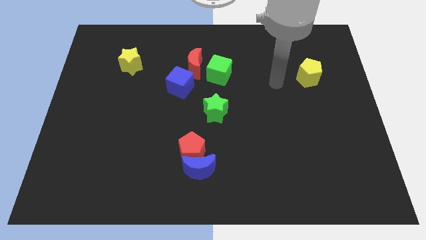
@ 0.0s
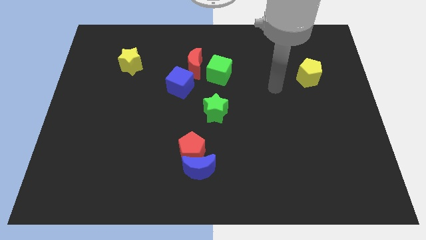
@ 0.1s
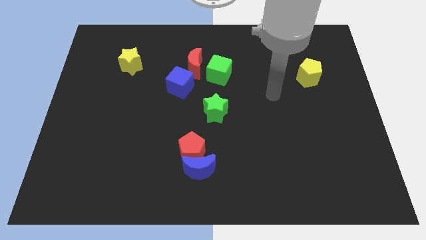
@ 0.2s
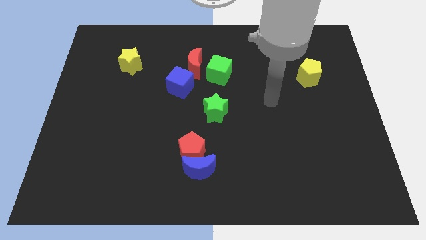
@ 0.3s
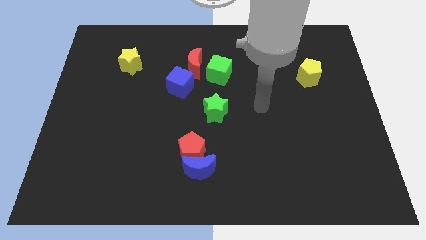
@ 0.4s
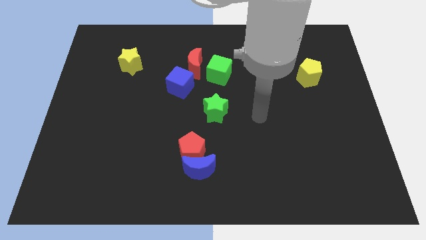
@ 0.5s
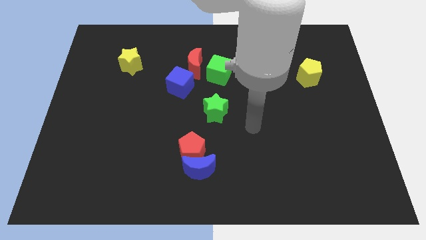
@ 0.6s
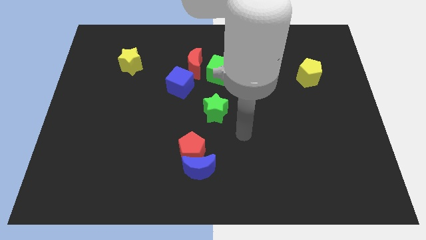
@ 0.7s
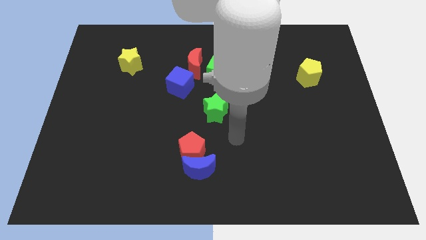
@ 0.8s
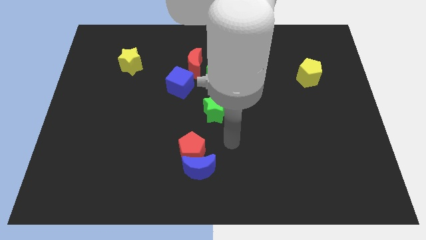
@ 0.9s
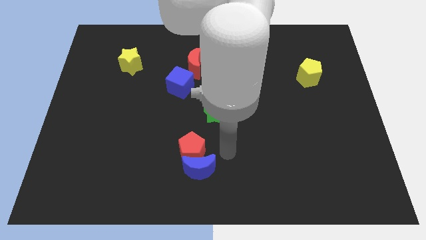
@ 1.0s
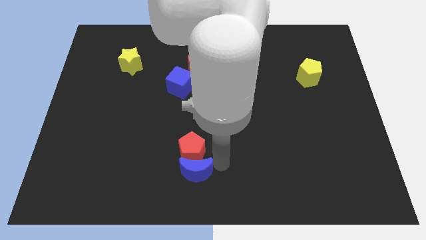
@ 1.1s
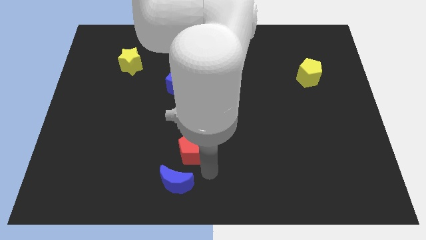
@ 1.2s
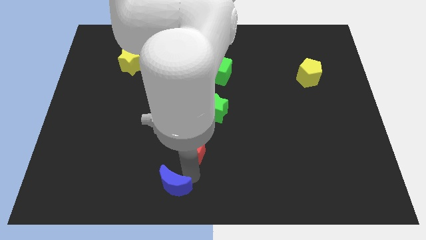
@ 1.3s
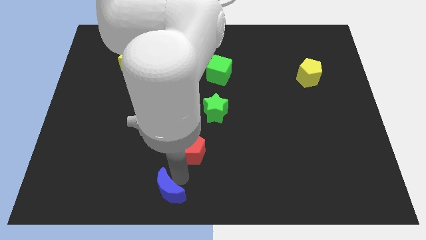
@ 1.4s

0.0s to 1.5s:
separate the red pentagon from the blue moon

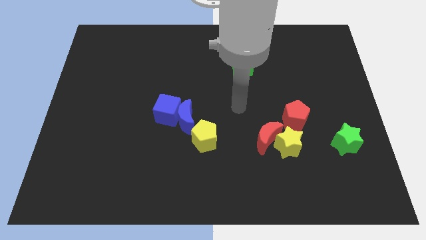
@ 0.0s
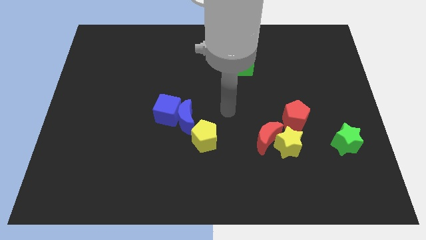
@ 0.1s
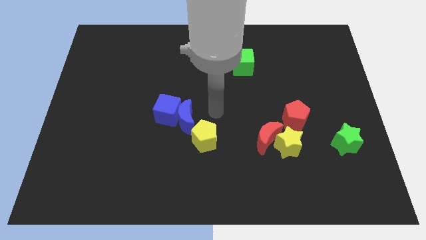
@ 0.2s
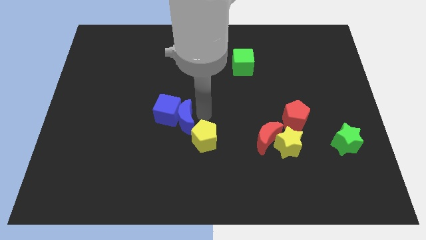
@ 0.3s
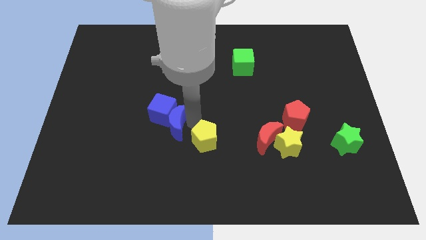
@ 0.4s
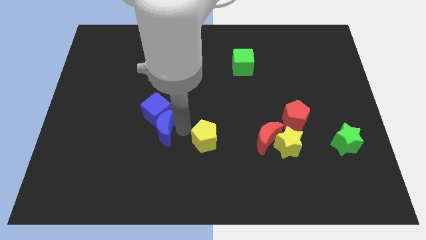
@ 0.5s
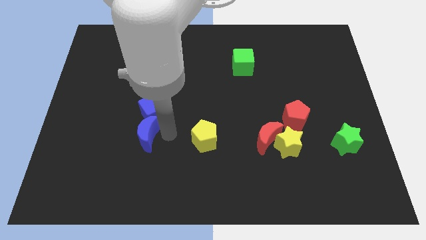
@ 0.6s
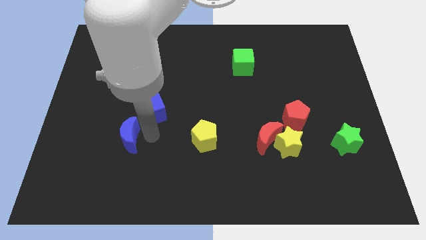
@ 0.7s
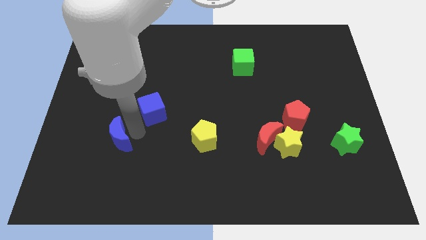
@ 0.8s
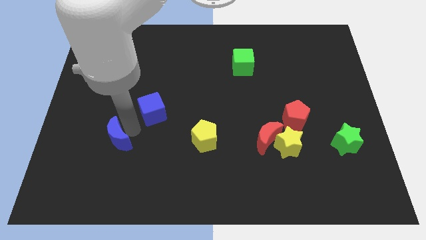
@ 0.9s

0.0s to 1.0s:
move the blue cube away from the blue moon

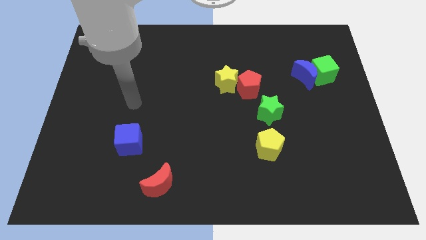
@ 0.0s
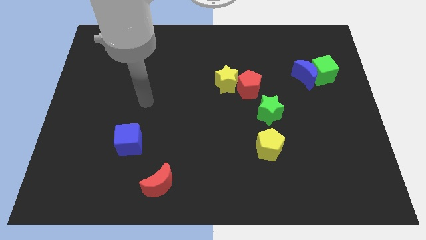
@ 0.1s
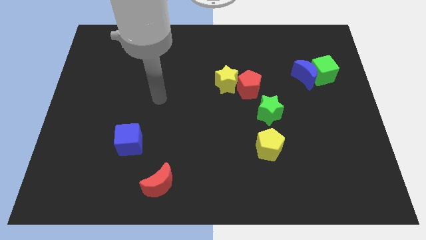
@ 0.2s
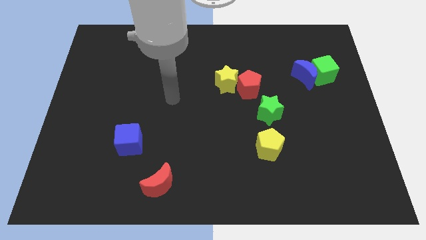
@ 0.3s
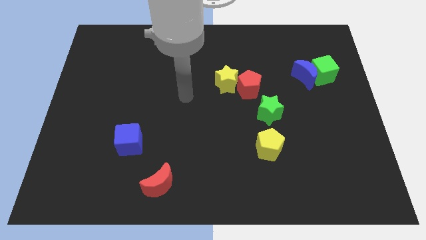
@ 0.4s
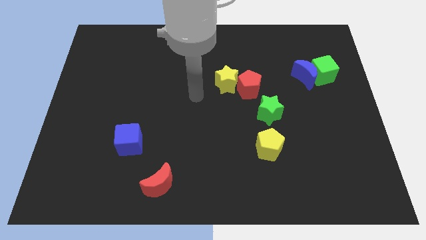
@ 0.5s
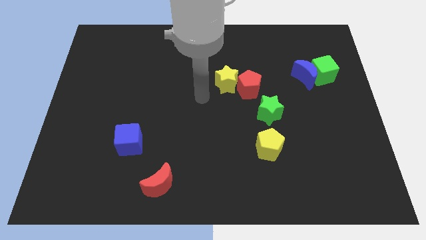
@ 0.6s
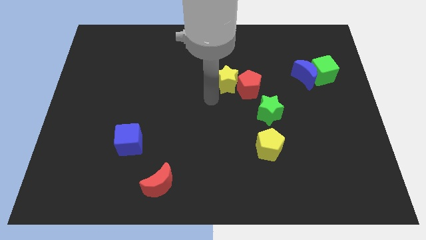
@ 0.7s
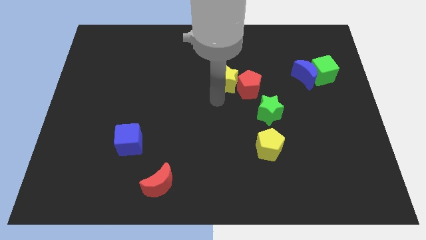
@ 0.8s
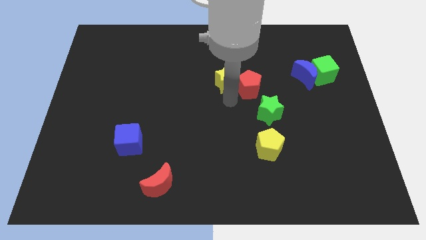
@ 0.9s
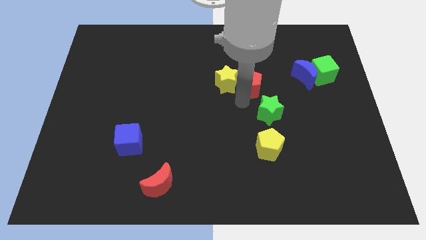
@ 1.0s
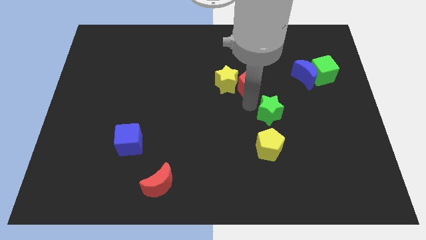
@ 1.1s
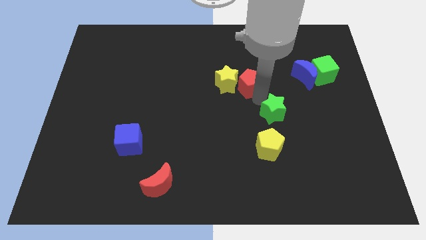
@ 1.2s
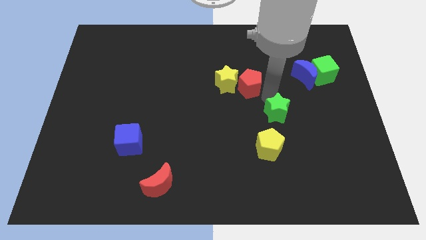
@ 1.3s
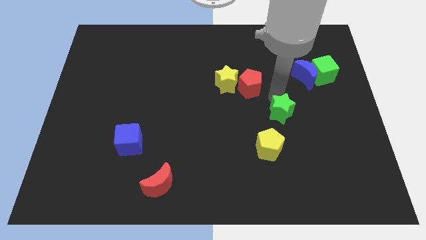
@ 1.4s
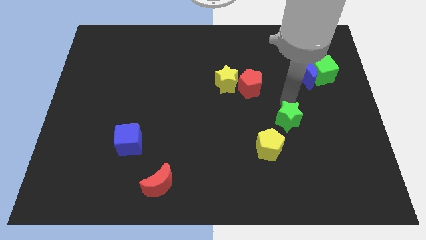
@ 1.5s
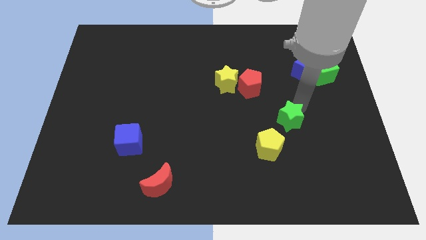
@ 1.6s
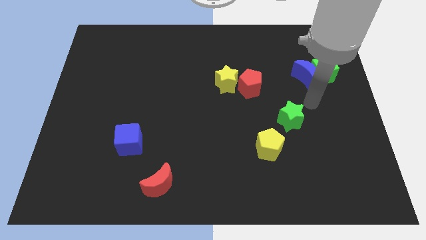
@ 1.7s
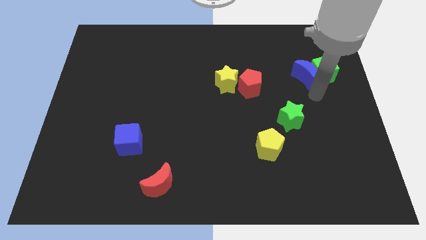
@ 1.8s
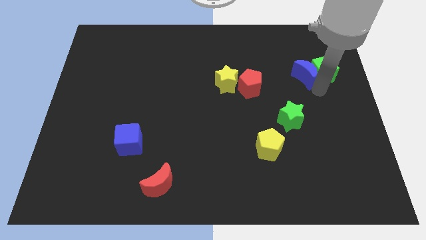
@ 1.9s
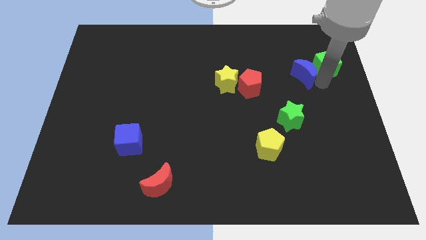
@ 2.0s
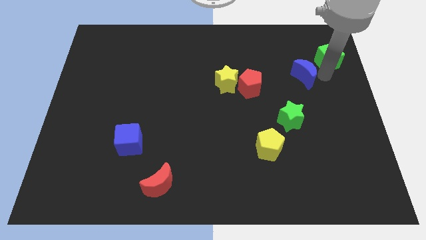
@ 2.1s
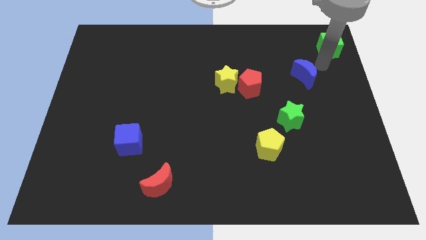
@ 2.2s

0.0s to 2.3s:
pull the blue moon apart from the green cube

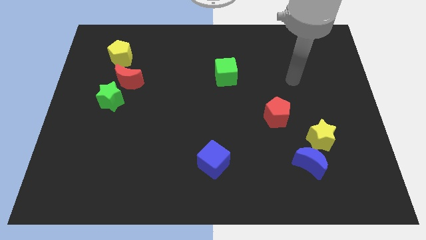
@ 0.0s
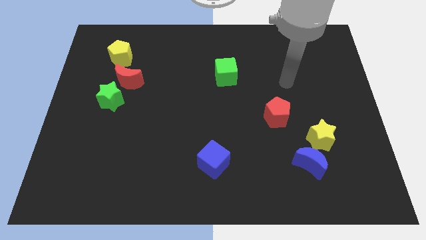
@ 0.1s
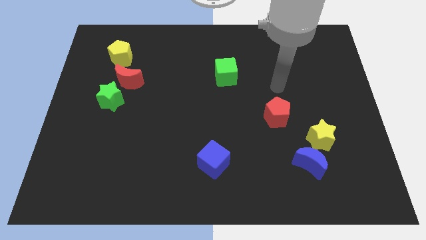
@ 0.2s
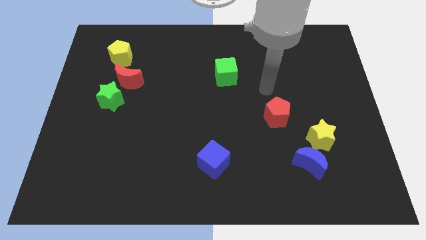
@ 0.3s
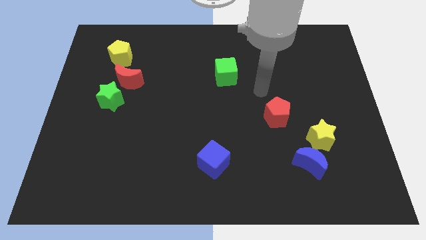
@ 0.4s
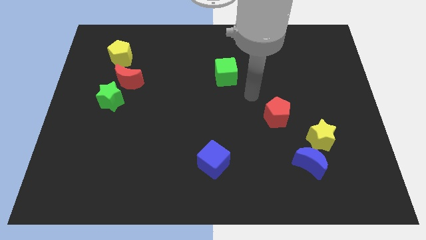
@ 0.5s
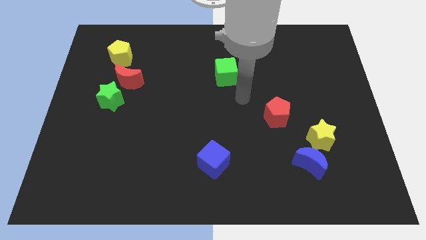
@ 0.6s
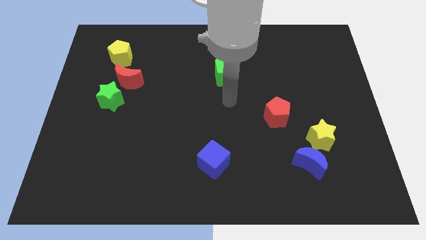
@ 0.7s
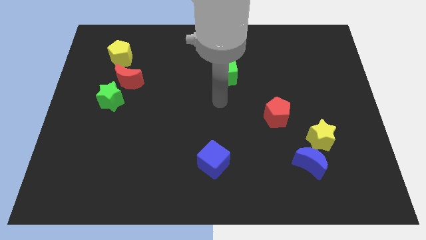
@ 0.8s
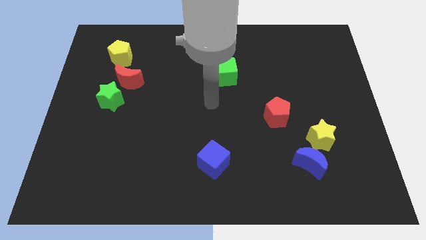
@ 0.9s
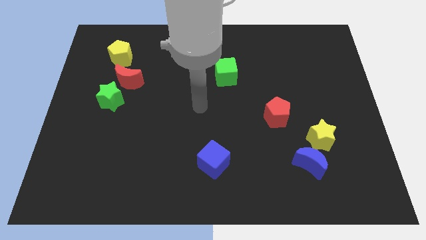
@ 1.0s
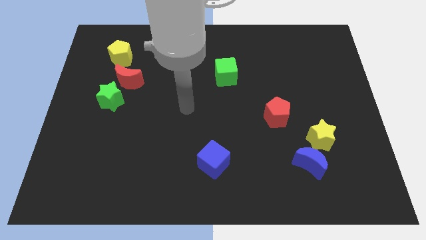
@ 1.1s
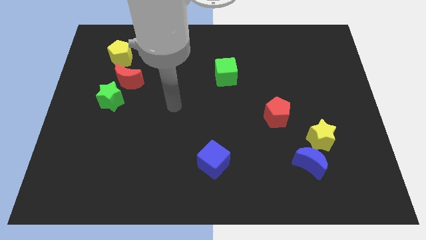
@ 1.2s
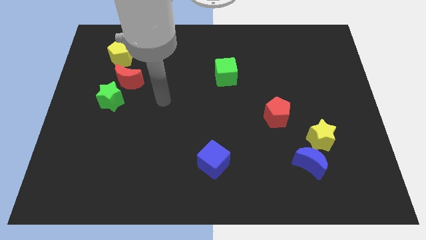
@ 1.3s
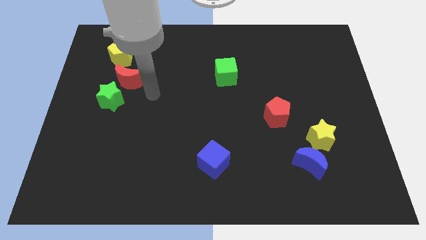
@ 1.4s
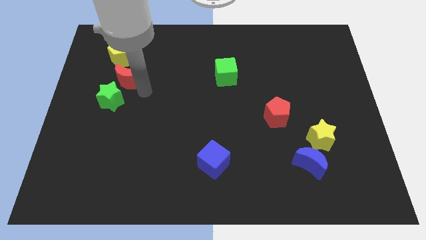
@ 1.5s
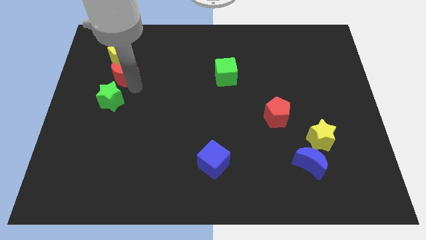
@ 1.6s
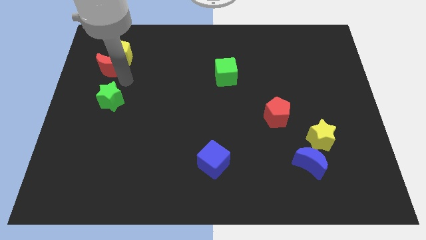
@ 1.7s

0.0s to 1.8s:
move the green star away from the red moon

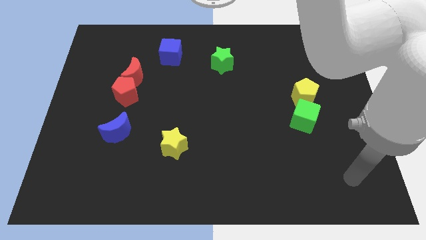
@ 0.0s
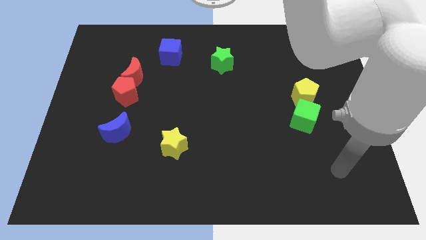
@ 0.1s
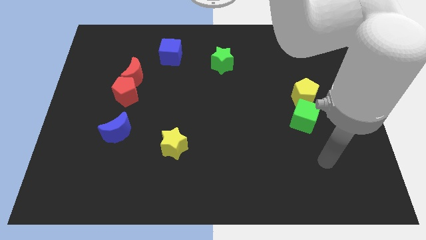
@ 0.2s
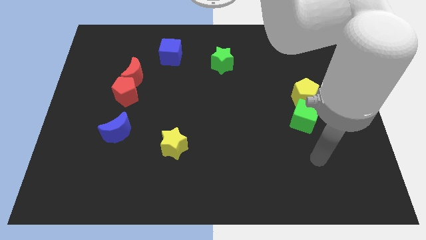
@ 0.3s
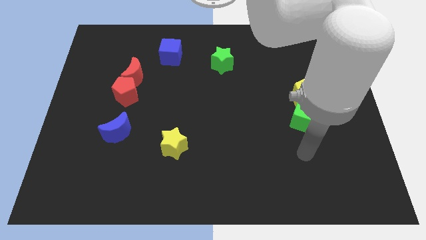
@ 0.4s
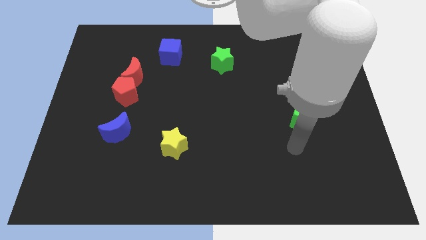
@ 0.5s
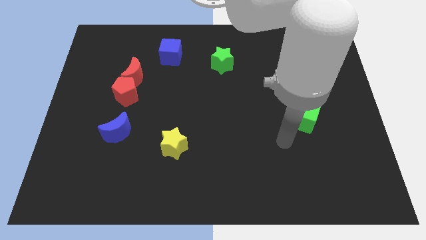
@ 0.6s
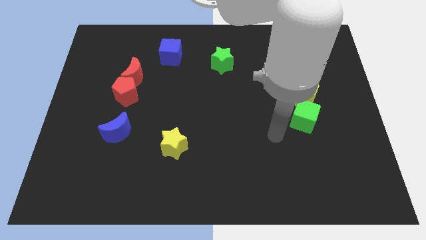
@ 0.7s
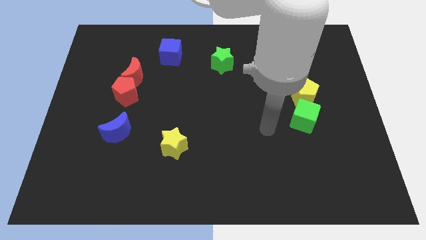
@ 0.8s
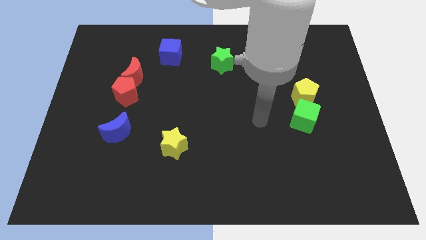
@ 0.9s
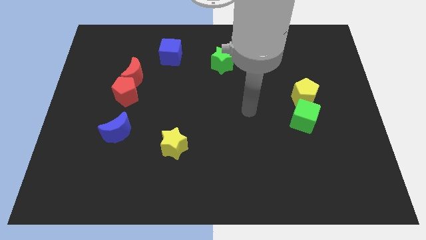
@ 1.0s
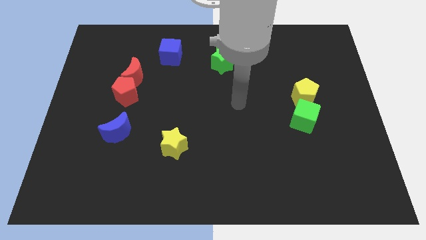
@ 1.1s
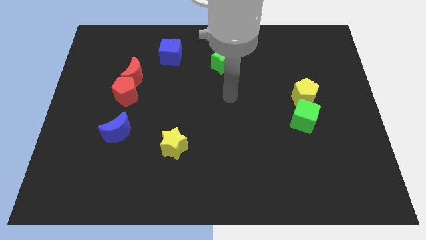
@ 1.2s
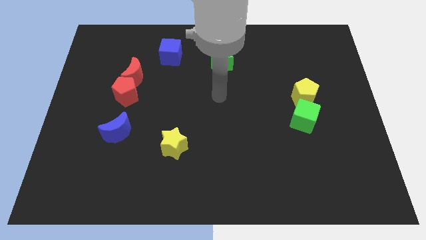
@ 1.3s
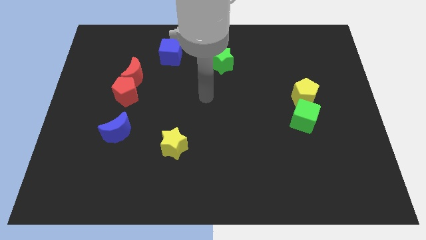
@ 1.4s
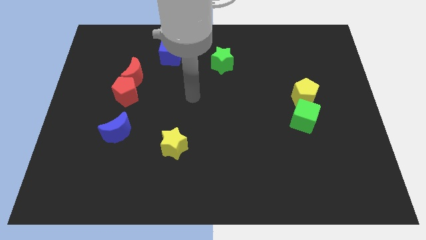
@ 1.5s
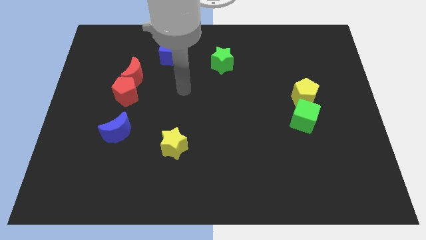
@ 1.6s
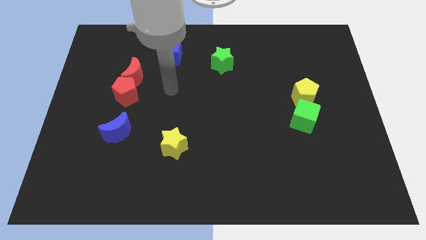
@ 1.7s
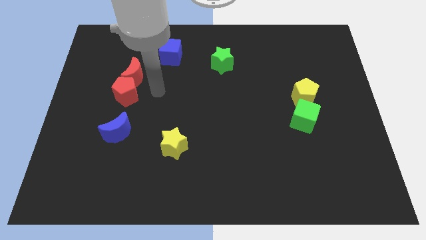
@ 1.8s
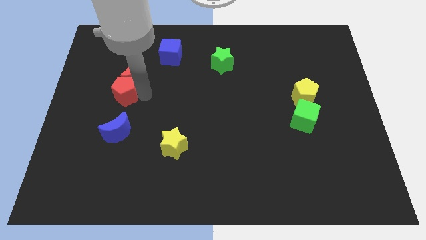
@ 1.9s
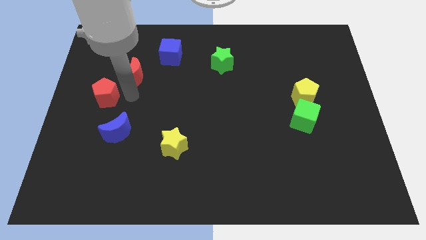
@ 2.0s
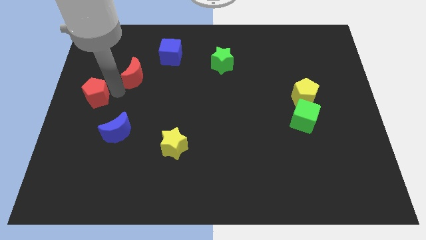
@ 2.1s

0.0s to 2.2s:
separate the red moon from the red pentagon

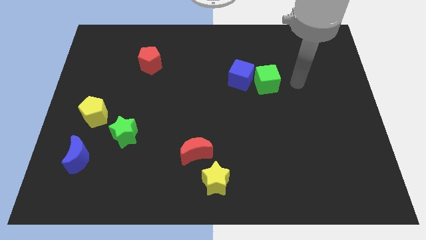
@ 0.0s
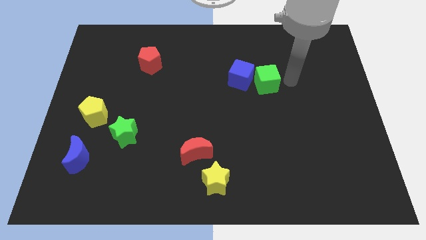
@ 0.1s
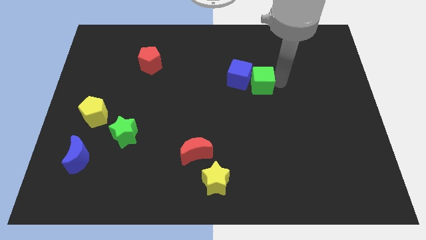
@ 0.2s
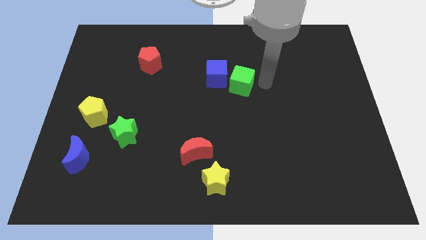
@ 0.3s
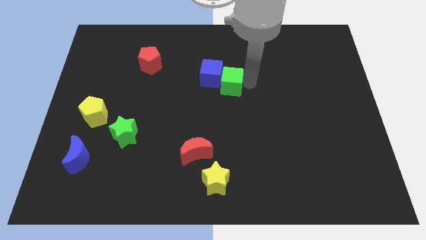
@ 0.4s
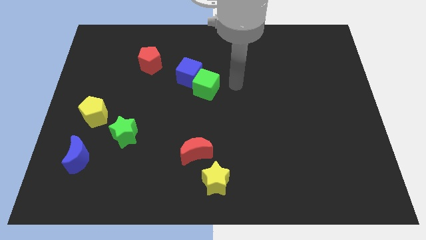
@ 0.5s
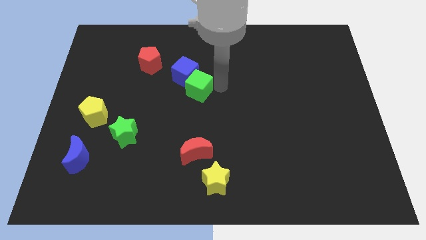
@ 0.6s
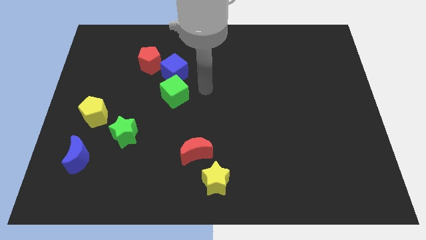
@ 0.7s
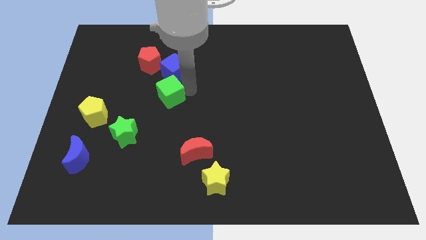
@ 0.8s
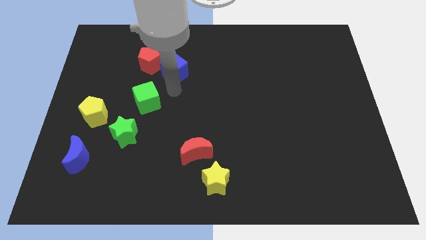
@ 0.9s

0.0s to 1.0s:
separate the blue cube from the green cube
